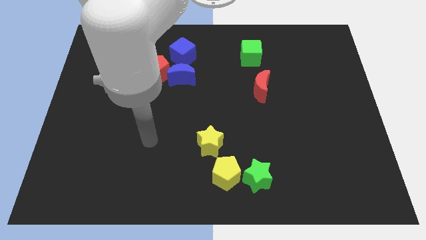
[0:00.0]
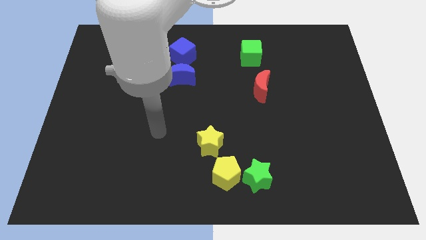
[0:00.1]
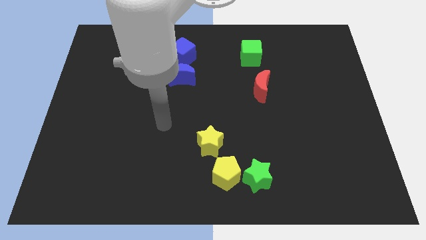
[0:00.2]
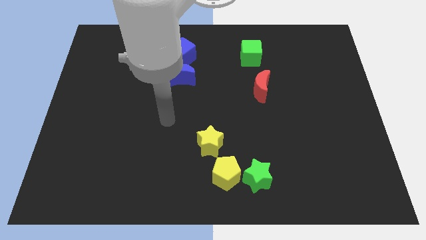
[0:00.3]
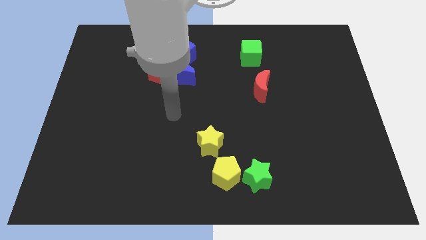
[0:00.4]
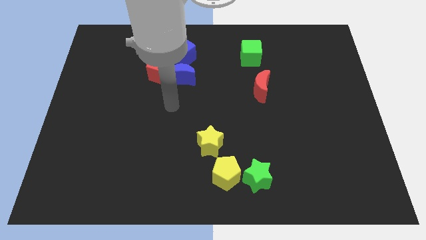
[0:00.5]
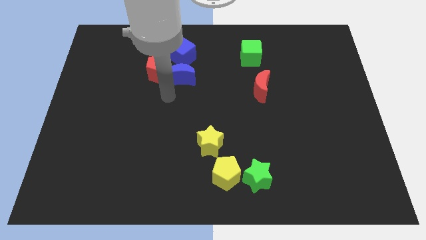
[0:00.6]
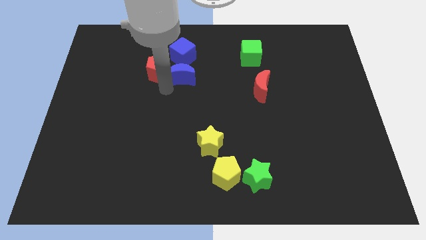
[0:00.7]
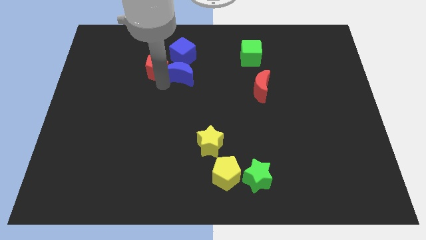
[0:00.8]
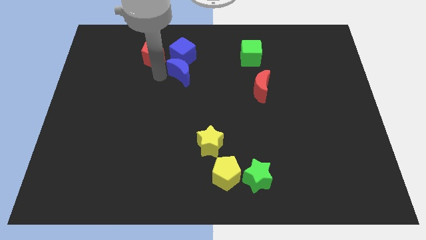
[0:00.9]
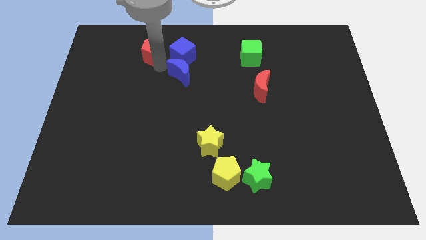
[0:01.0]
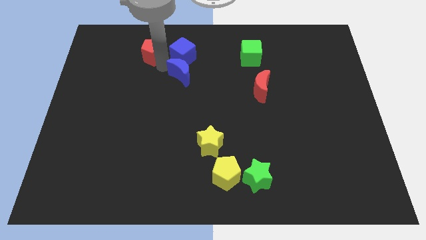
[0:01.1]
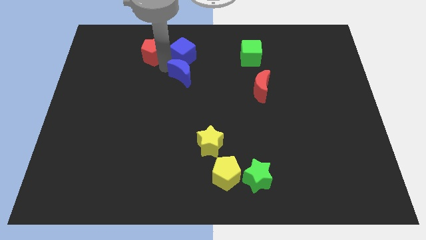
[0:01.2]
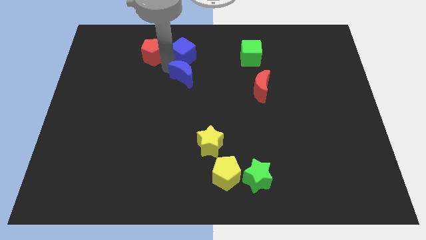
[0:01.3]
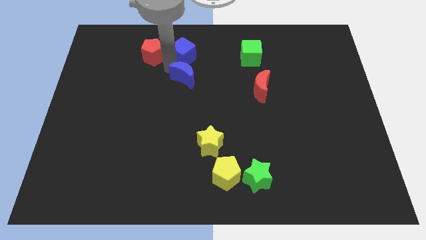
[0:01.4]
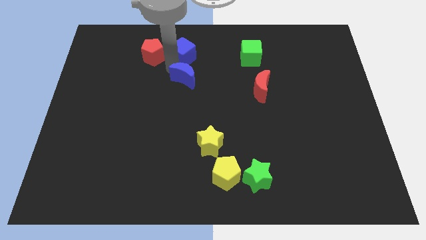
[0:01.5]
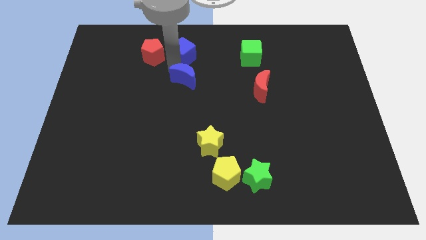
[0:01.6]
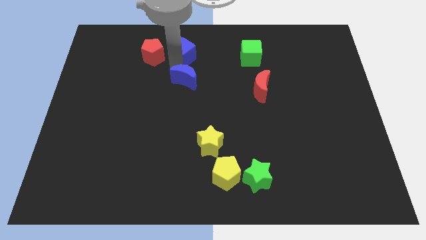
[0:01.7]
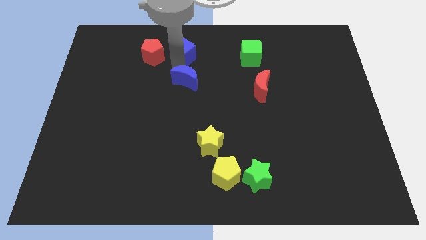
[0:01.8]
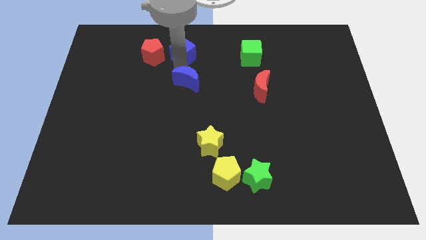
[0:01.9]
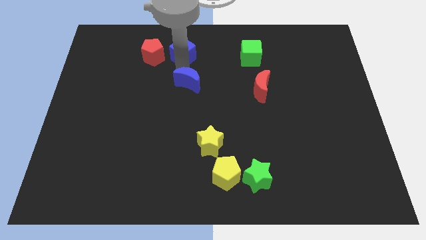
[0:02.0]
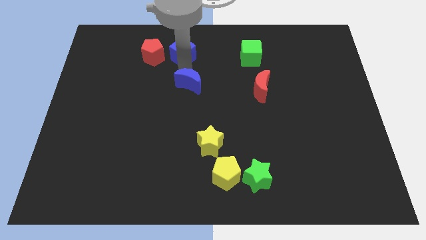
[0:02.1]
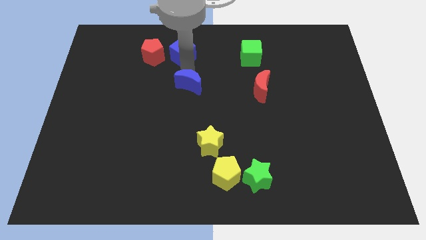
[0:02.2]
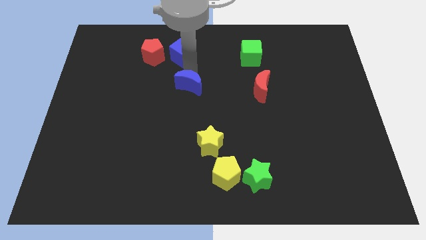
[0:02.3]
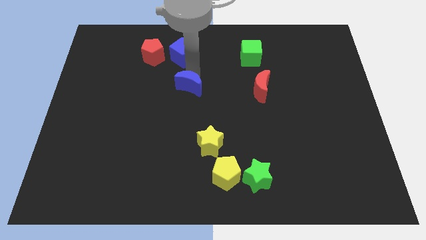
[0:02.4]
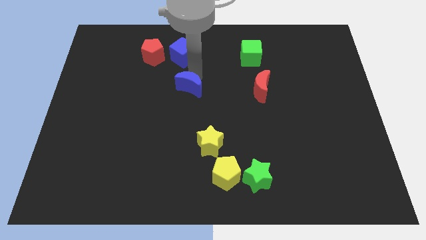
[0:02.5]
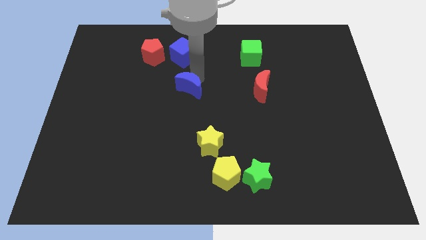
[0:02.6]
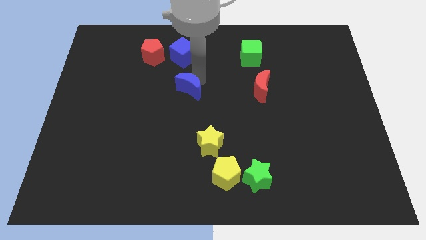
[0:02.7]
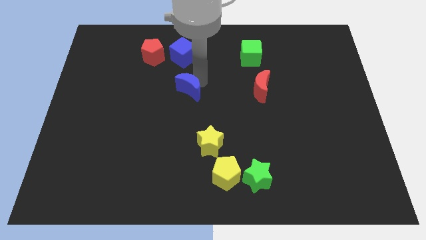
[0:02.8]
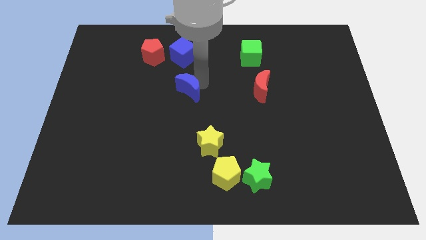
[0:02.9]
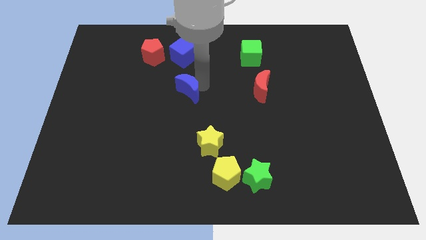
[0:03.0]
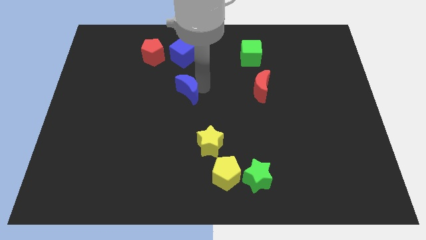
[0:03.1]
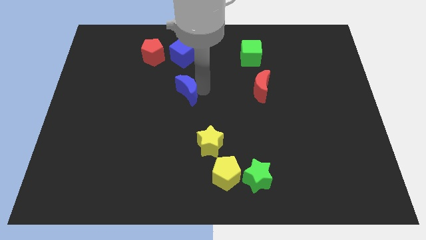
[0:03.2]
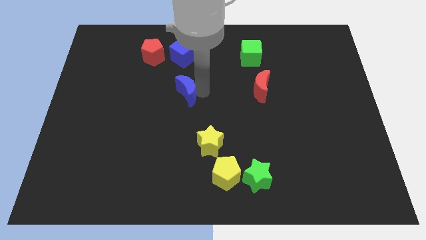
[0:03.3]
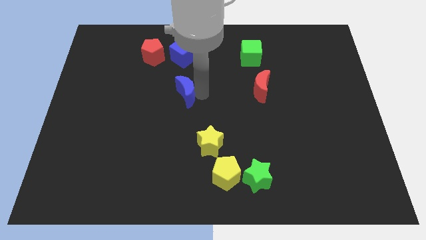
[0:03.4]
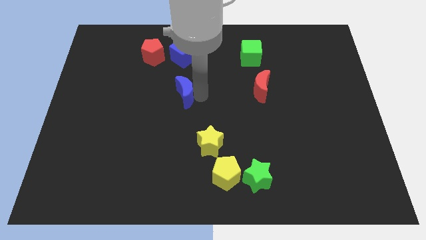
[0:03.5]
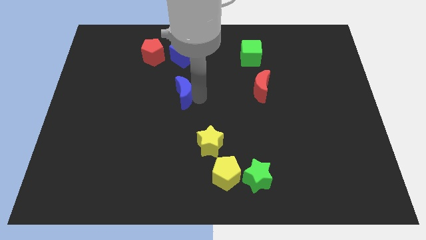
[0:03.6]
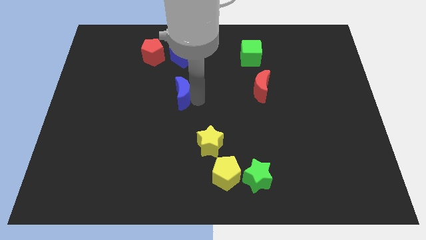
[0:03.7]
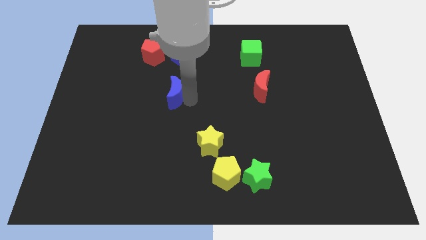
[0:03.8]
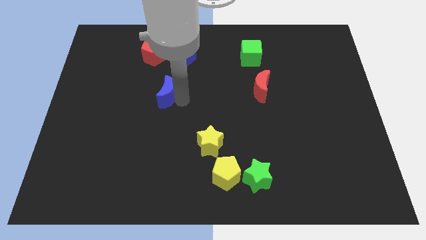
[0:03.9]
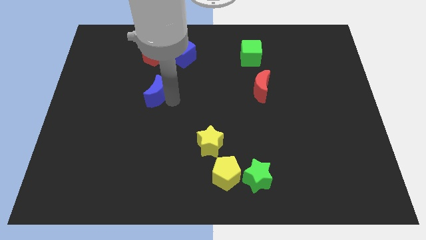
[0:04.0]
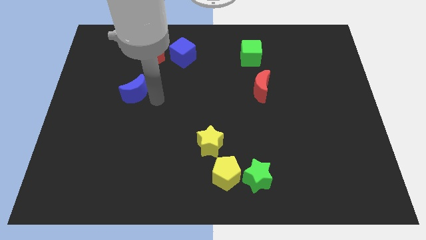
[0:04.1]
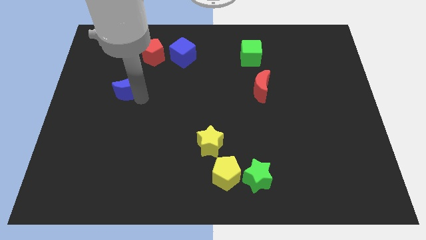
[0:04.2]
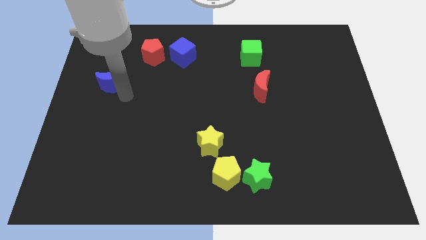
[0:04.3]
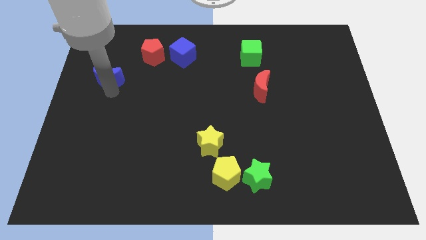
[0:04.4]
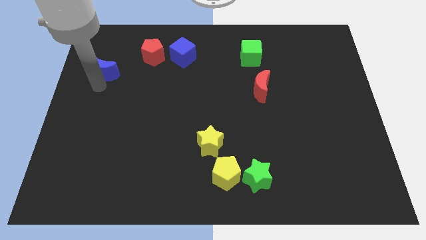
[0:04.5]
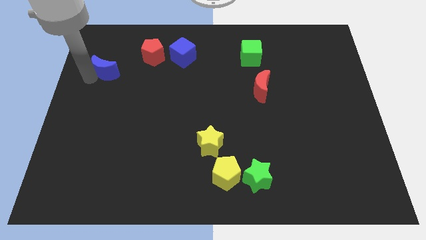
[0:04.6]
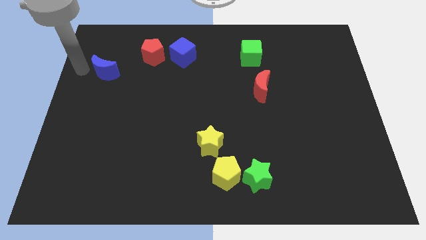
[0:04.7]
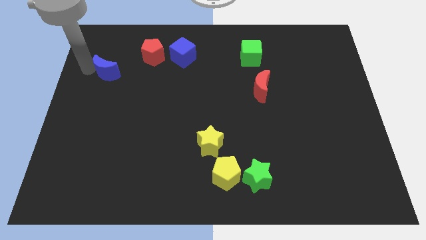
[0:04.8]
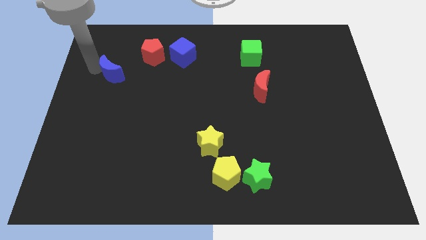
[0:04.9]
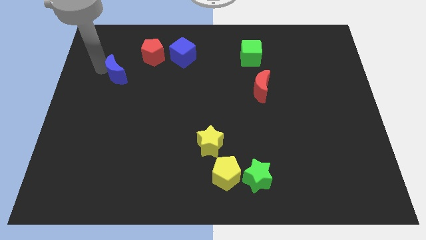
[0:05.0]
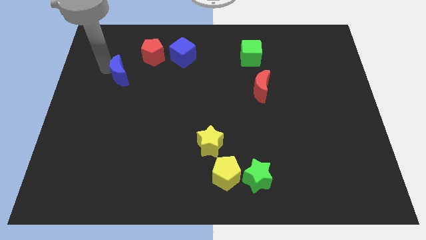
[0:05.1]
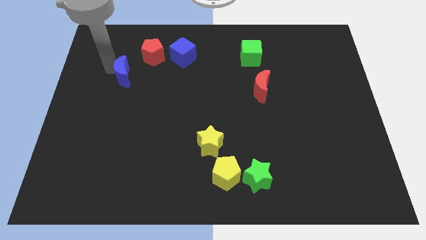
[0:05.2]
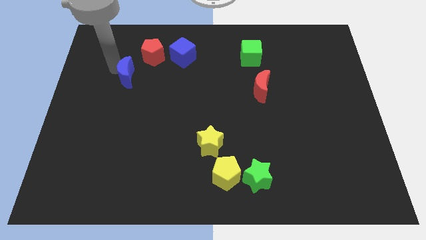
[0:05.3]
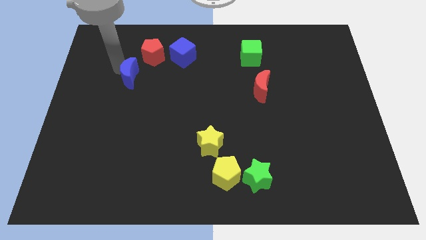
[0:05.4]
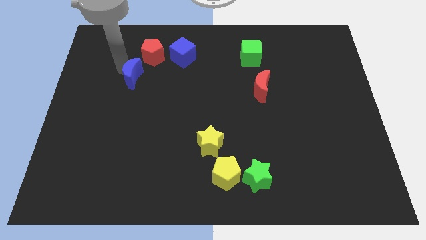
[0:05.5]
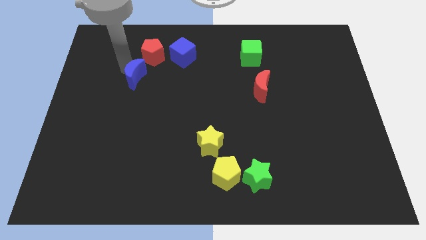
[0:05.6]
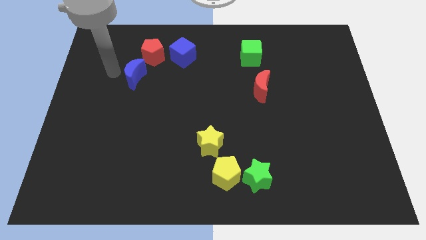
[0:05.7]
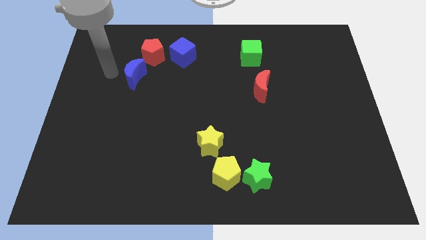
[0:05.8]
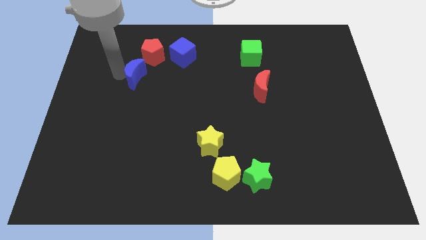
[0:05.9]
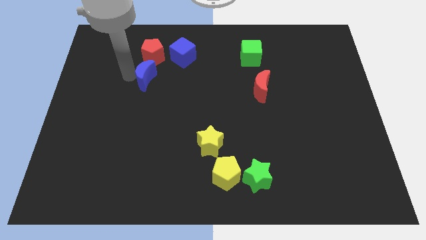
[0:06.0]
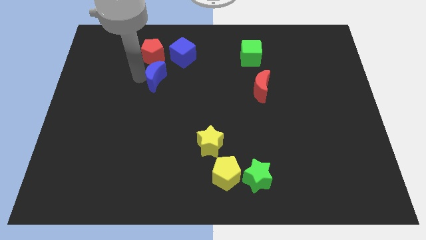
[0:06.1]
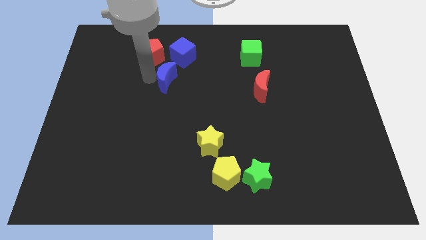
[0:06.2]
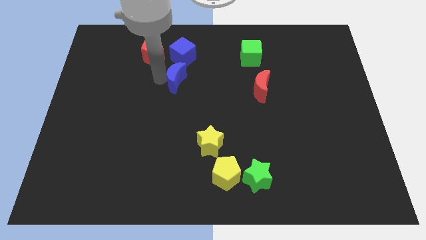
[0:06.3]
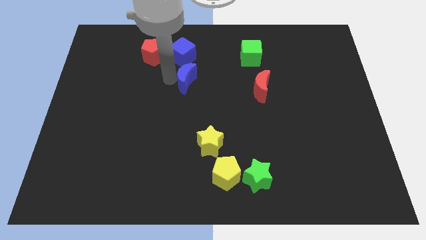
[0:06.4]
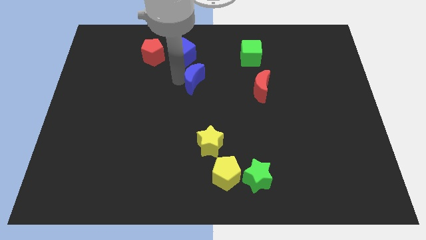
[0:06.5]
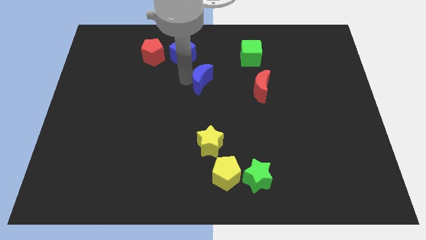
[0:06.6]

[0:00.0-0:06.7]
move the blue moon left of the red moon

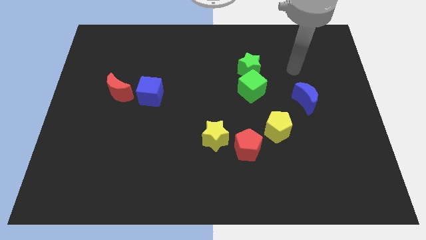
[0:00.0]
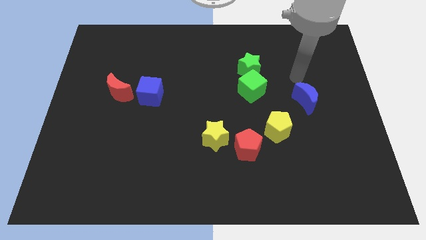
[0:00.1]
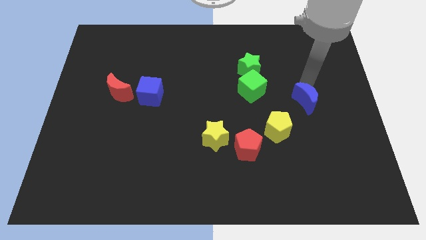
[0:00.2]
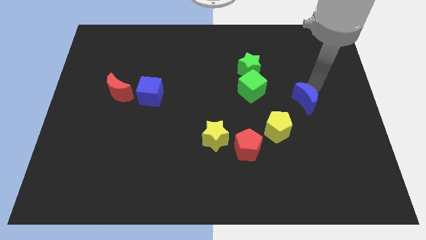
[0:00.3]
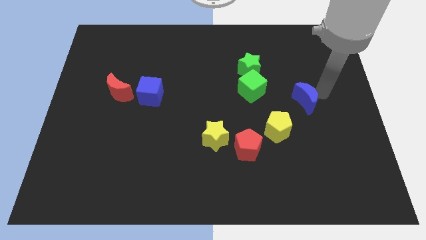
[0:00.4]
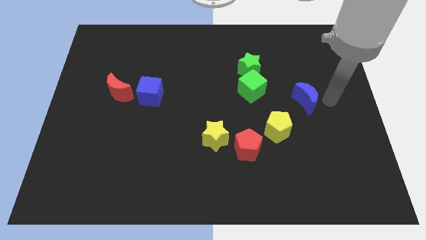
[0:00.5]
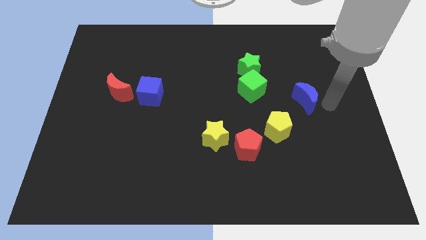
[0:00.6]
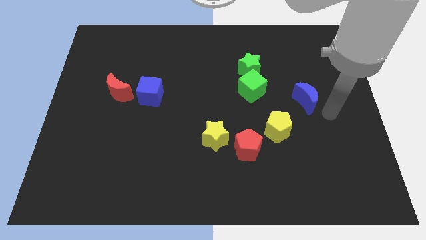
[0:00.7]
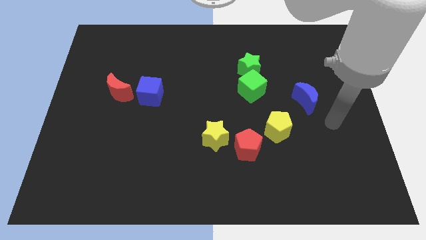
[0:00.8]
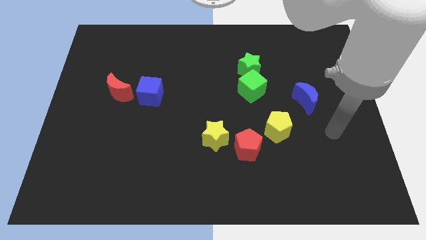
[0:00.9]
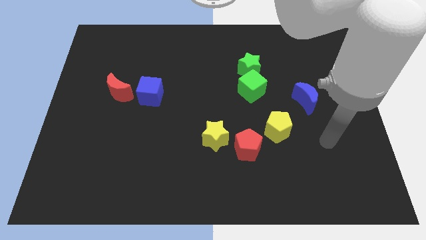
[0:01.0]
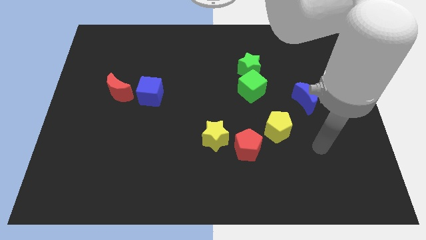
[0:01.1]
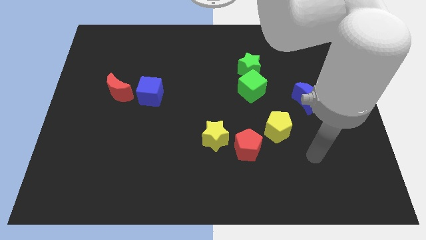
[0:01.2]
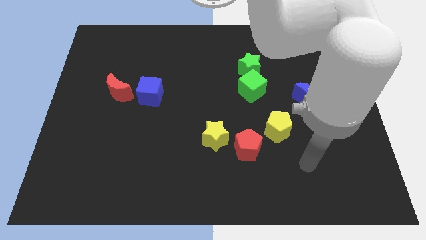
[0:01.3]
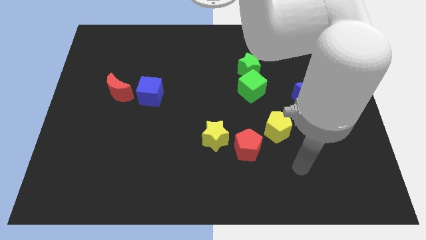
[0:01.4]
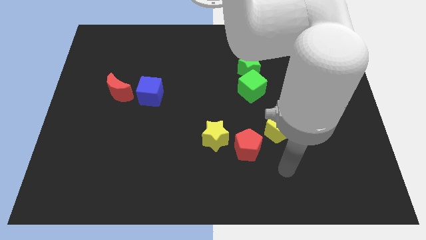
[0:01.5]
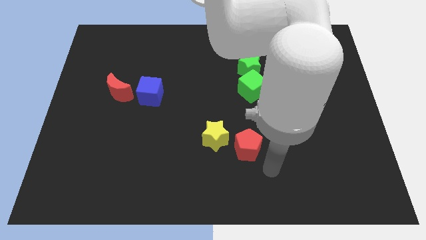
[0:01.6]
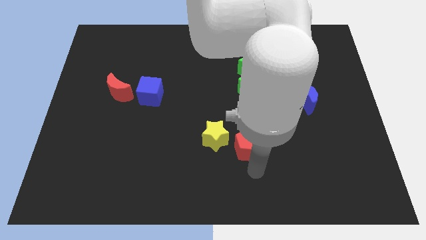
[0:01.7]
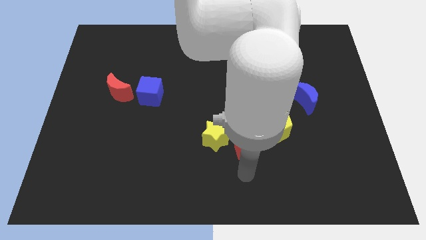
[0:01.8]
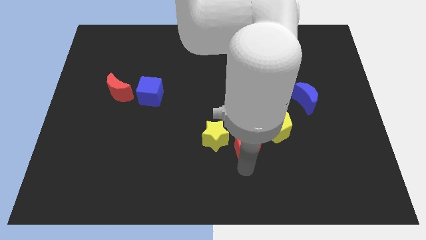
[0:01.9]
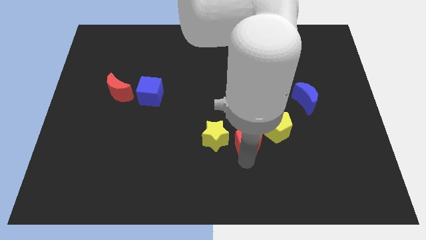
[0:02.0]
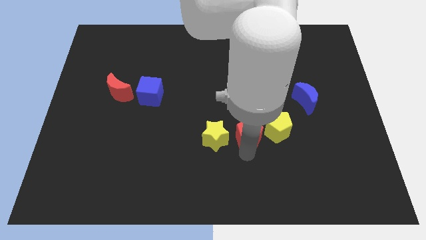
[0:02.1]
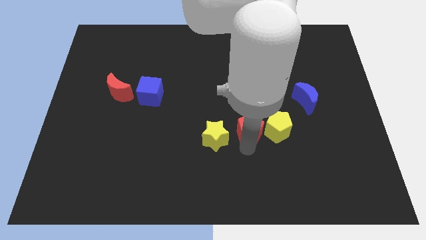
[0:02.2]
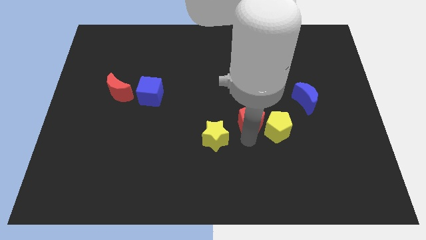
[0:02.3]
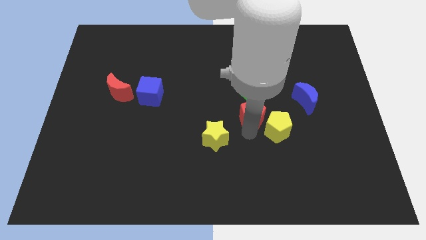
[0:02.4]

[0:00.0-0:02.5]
push the red pentagon below the green star
